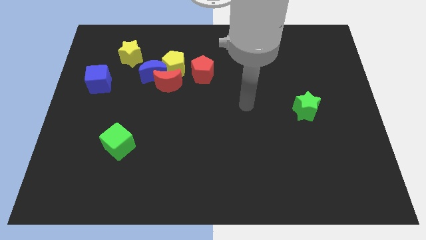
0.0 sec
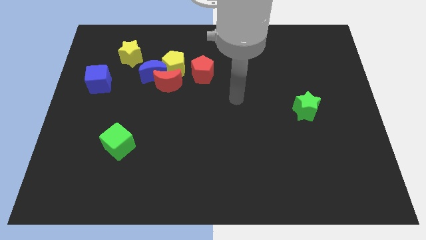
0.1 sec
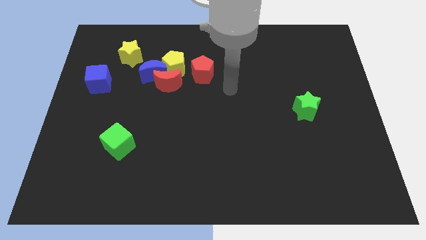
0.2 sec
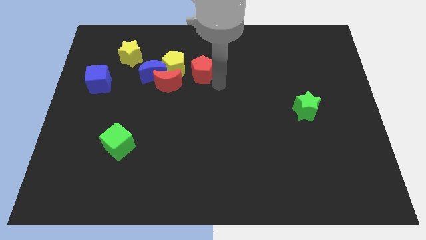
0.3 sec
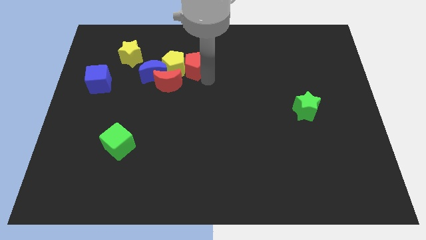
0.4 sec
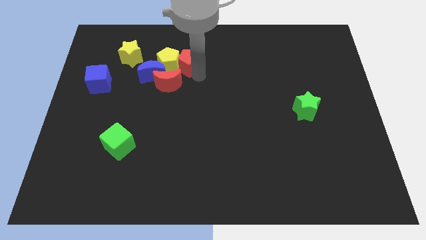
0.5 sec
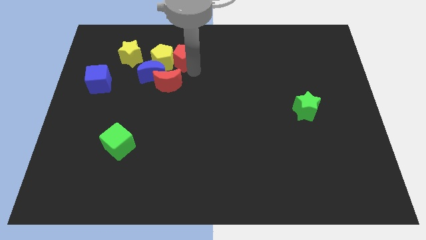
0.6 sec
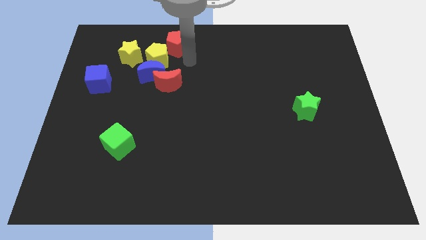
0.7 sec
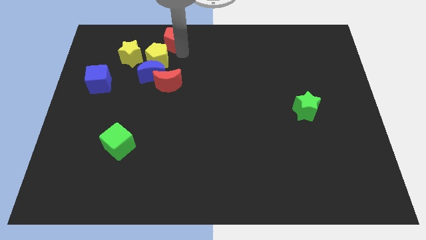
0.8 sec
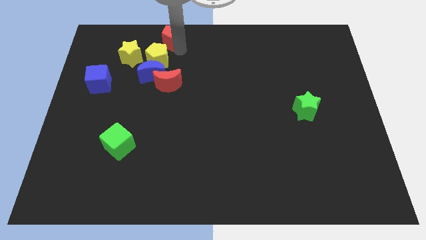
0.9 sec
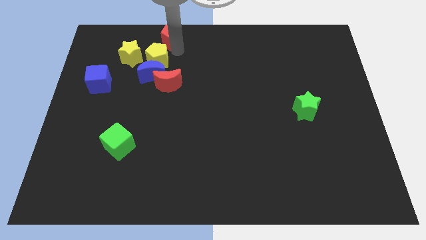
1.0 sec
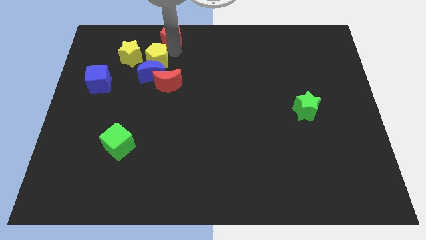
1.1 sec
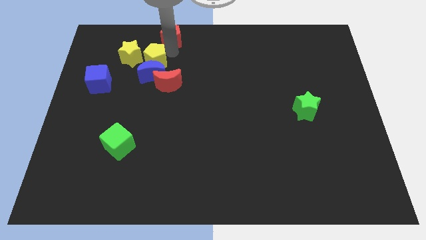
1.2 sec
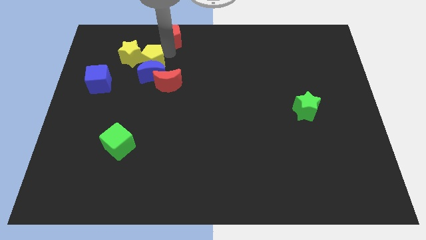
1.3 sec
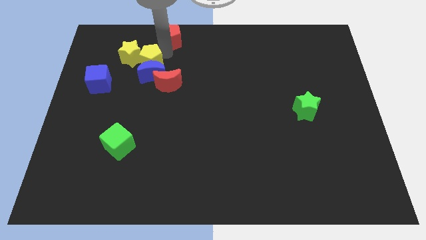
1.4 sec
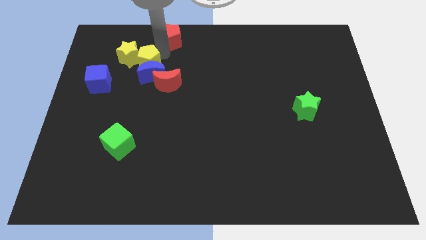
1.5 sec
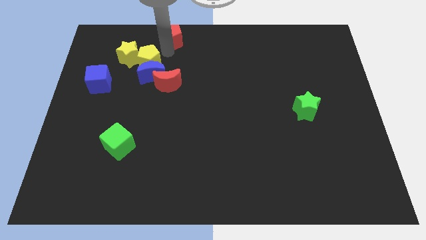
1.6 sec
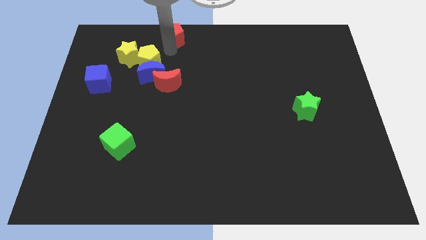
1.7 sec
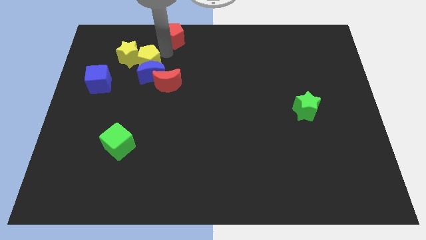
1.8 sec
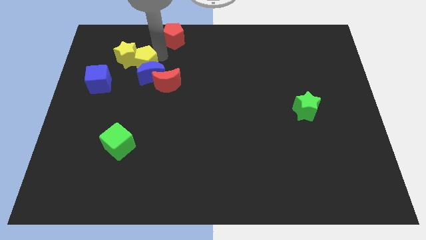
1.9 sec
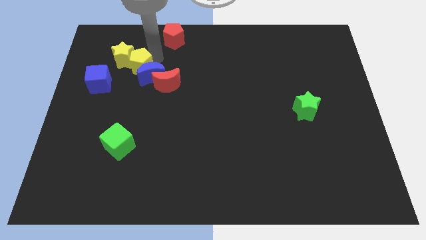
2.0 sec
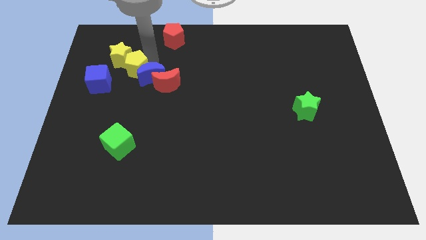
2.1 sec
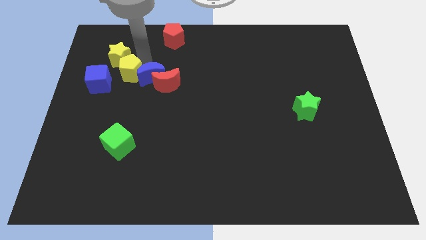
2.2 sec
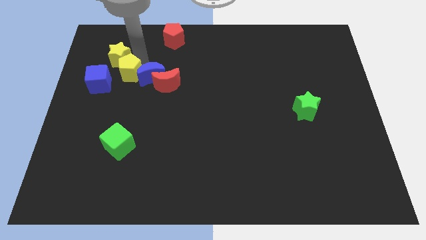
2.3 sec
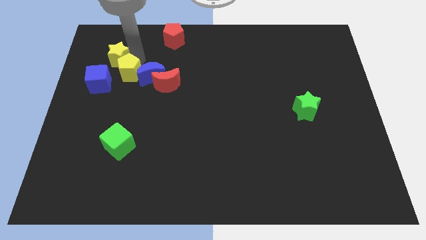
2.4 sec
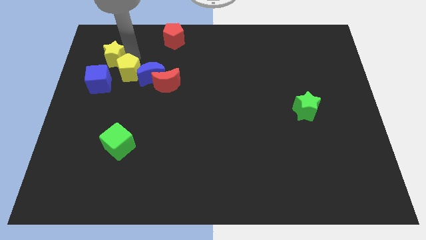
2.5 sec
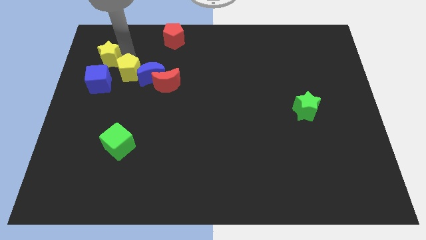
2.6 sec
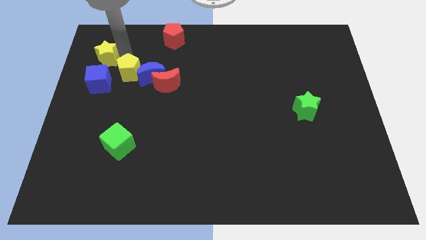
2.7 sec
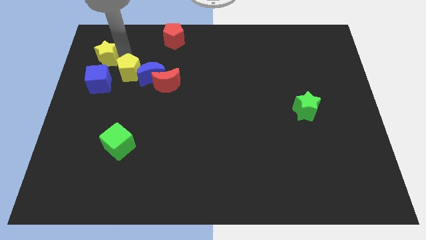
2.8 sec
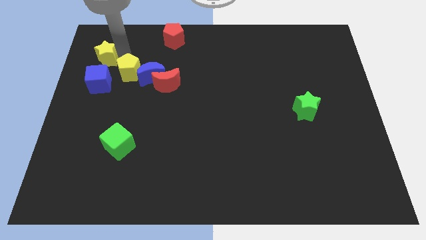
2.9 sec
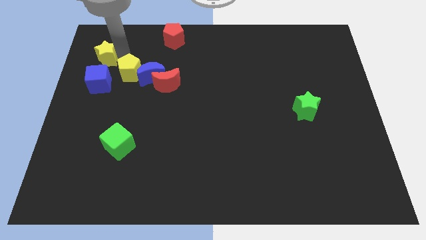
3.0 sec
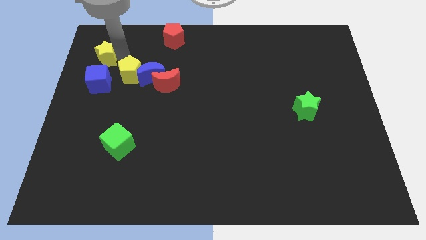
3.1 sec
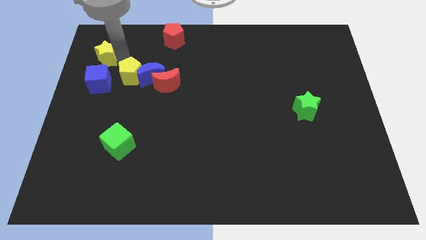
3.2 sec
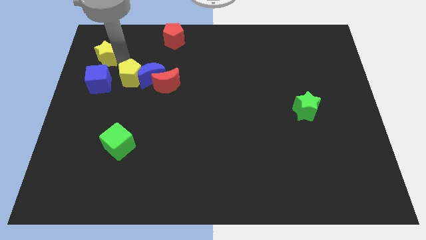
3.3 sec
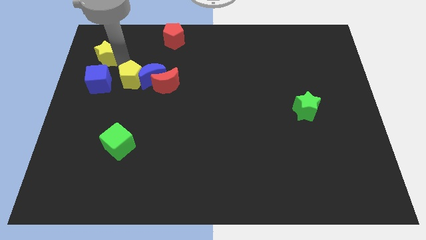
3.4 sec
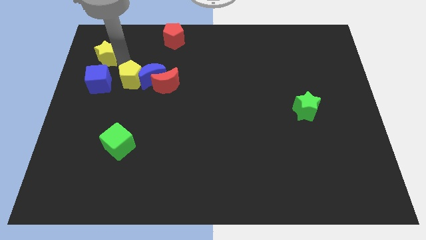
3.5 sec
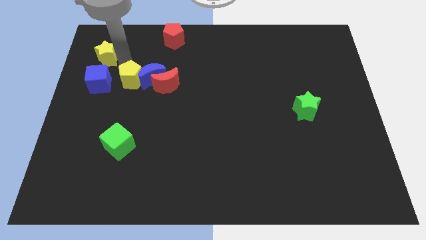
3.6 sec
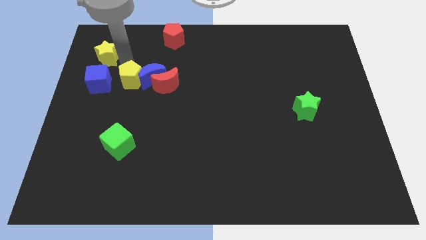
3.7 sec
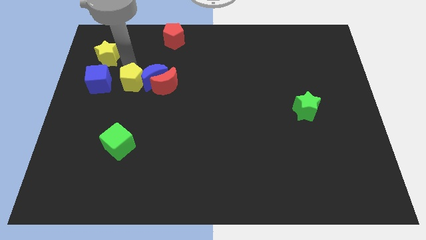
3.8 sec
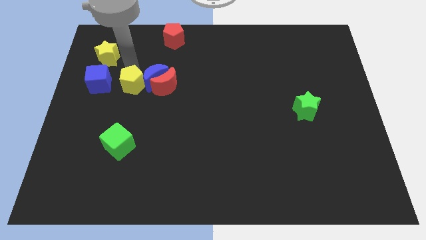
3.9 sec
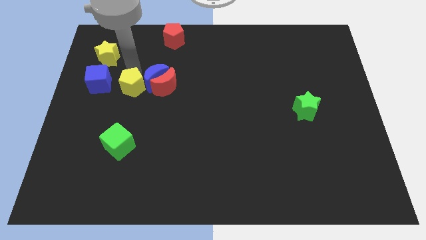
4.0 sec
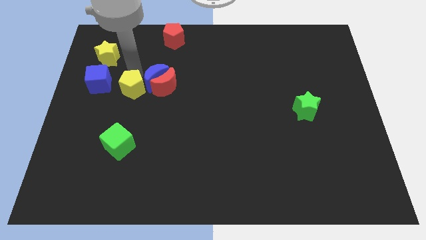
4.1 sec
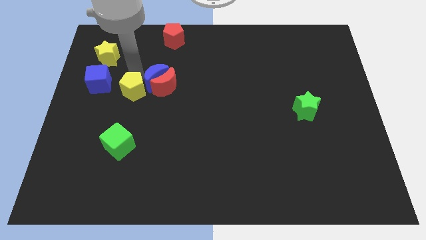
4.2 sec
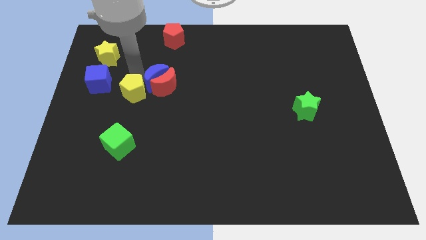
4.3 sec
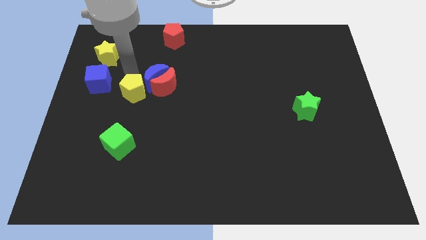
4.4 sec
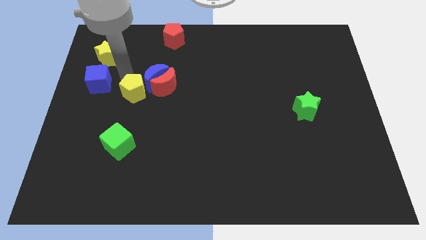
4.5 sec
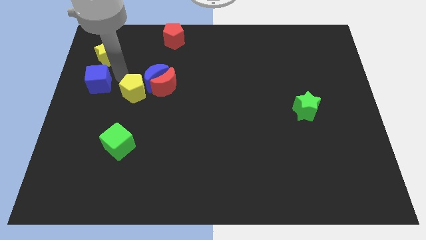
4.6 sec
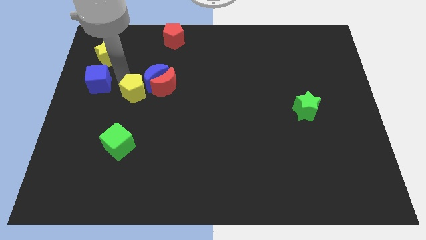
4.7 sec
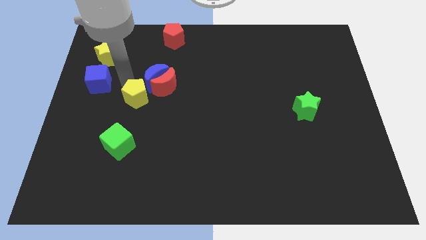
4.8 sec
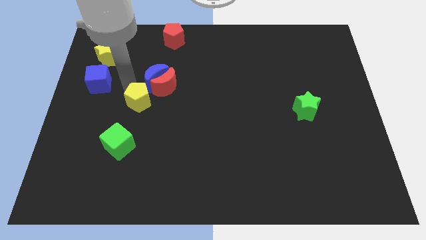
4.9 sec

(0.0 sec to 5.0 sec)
move the yellow pentagon a little bit down

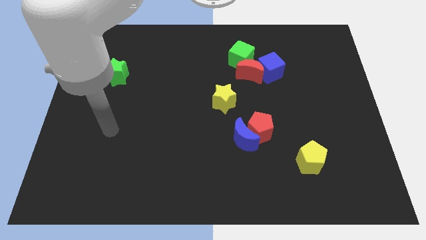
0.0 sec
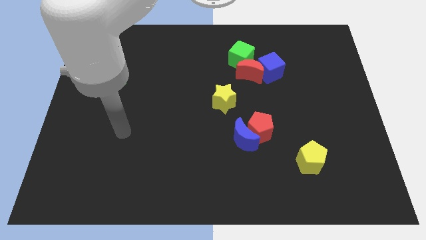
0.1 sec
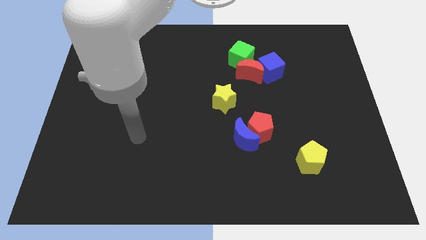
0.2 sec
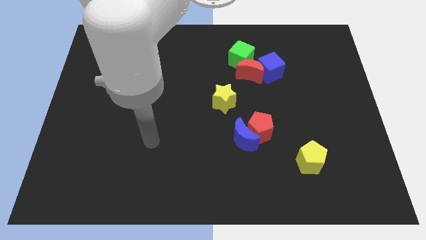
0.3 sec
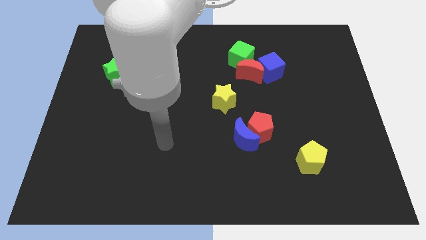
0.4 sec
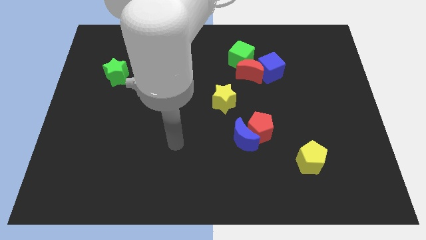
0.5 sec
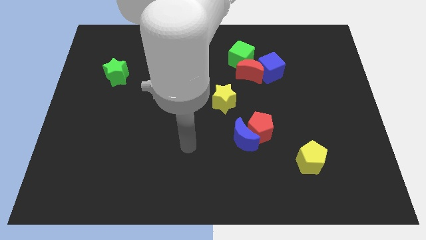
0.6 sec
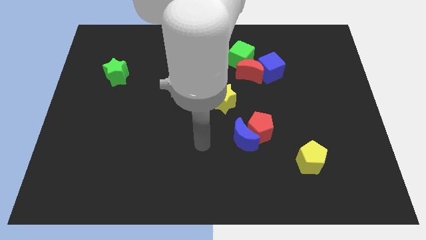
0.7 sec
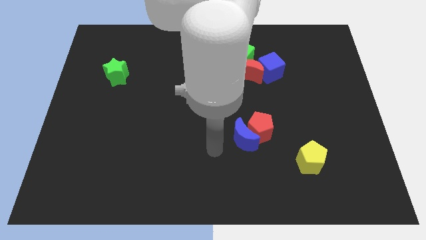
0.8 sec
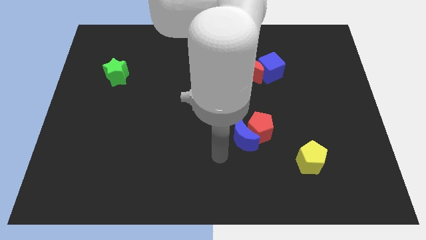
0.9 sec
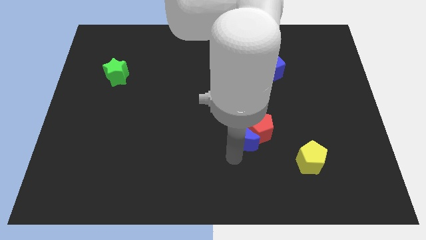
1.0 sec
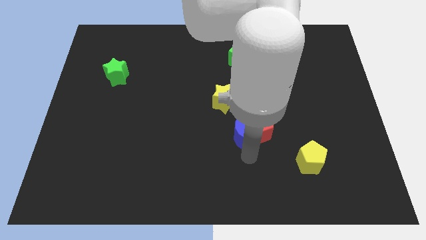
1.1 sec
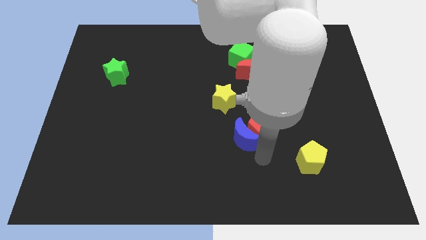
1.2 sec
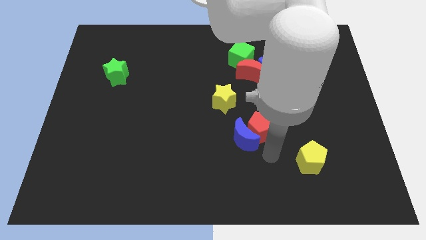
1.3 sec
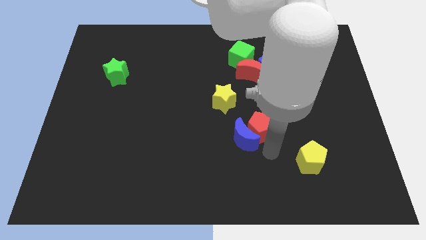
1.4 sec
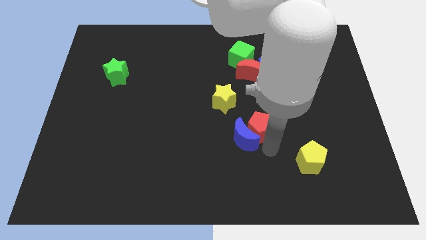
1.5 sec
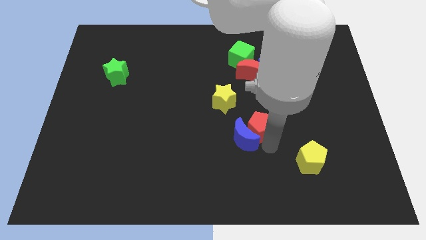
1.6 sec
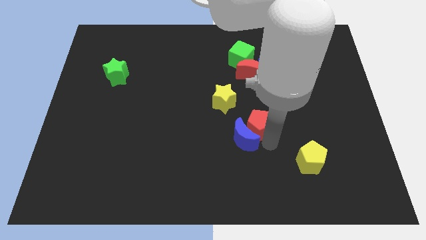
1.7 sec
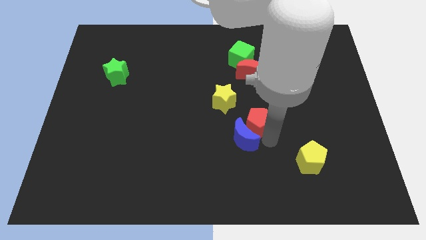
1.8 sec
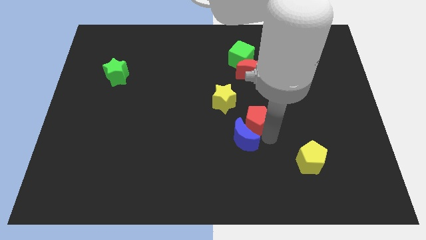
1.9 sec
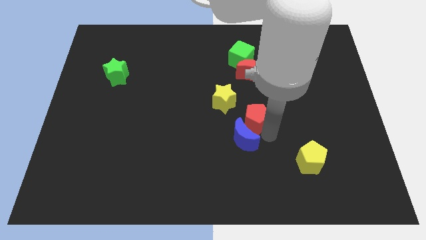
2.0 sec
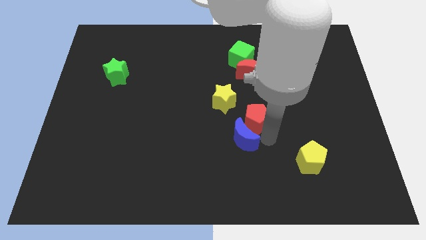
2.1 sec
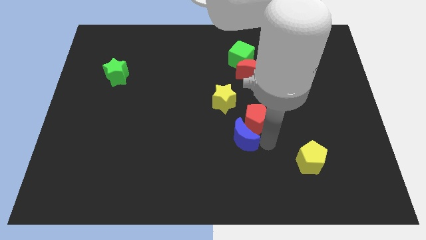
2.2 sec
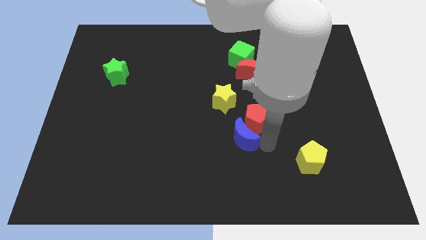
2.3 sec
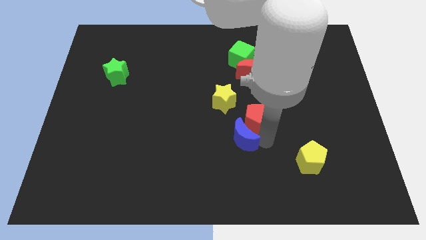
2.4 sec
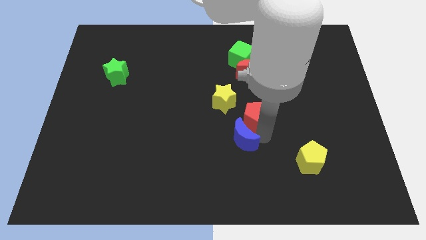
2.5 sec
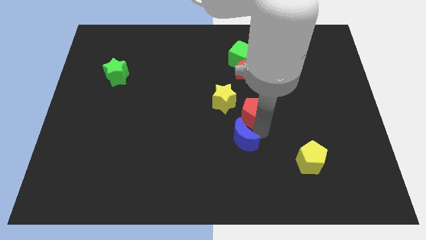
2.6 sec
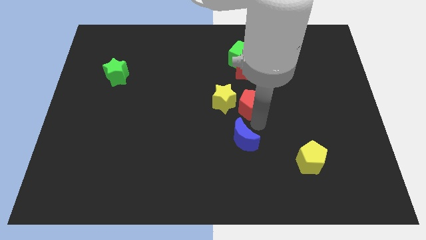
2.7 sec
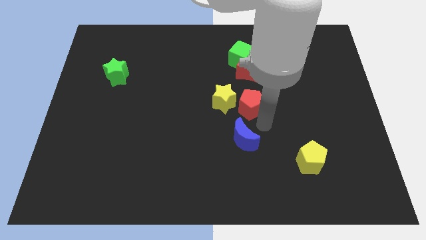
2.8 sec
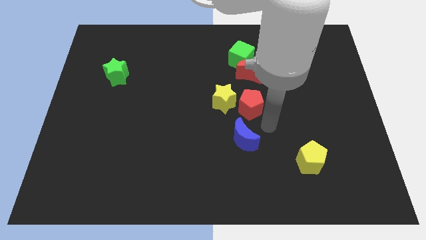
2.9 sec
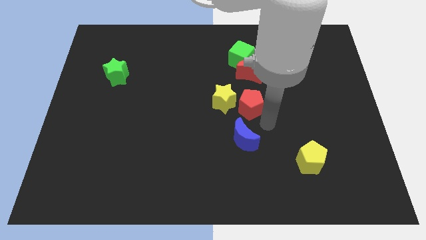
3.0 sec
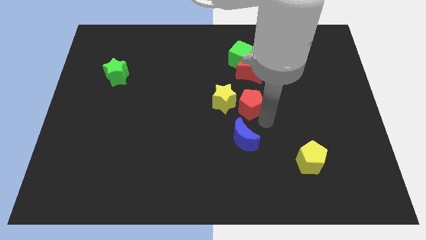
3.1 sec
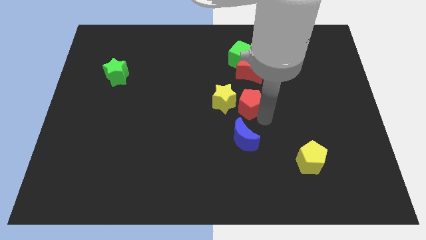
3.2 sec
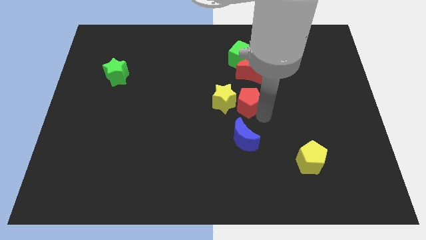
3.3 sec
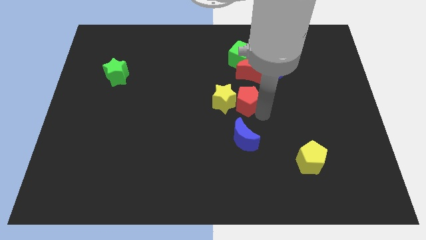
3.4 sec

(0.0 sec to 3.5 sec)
slightly slide the red pentagon diagonally upwards and to the left
